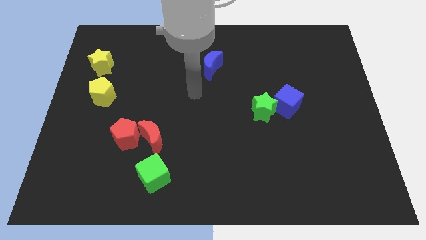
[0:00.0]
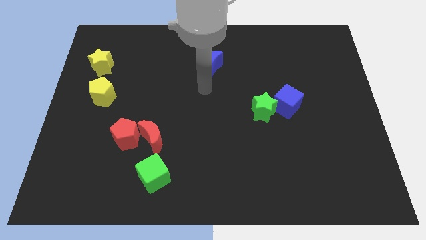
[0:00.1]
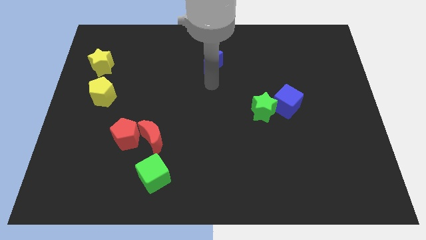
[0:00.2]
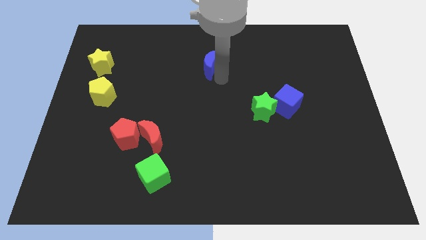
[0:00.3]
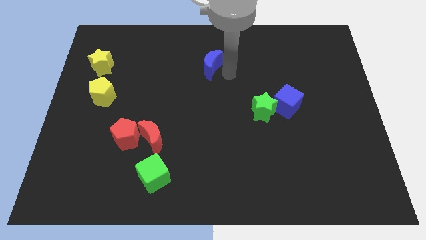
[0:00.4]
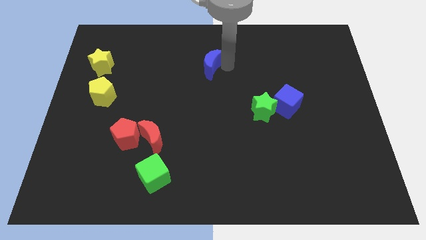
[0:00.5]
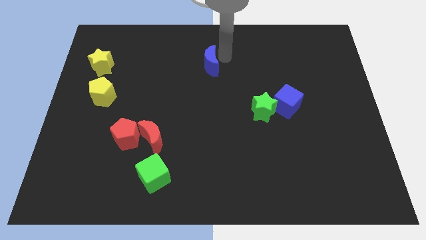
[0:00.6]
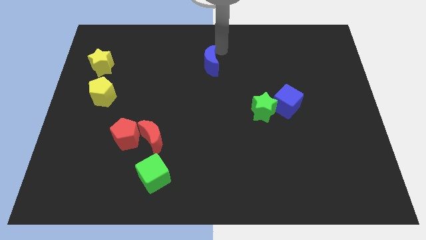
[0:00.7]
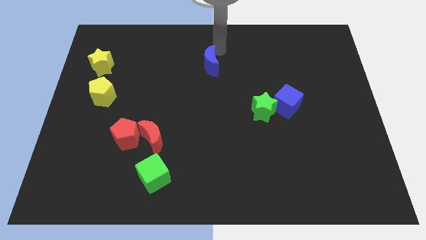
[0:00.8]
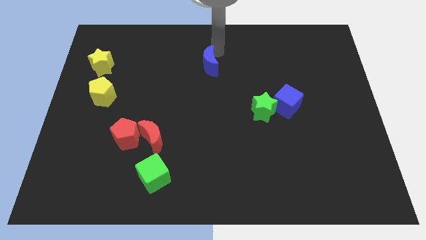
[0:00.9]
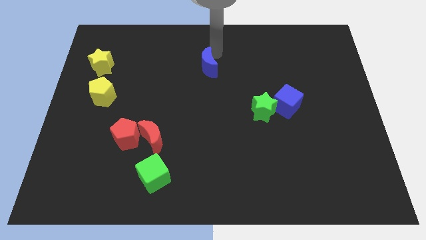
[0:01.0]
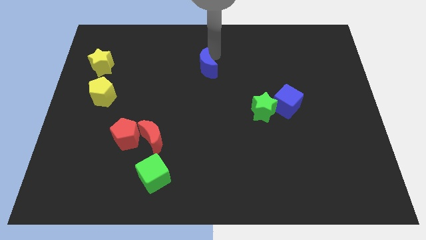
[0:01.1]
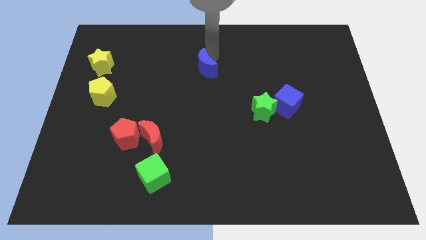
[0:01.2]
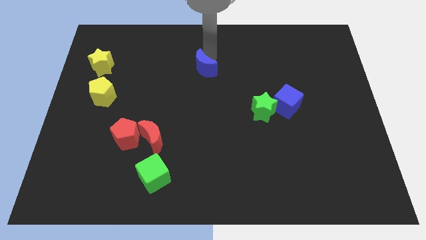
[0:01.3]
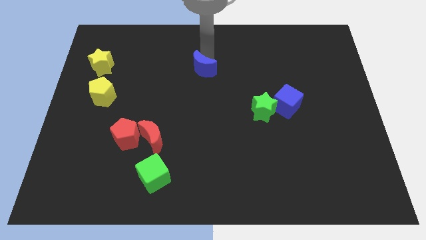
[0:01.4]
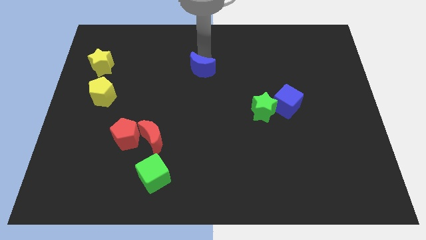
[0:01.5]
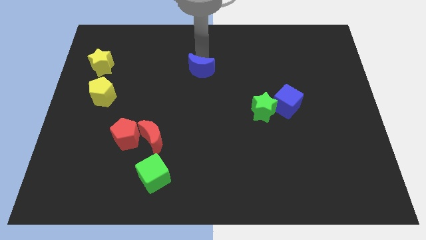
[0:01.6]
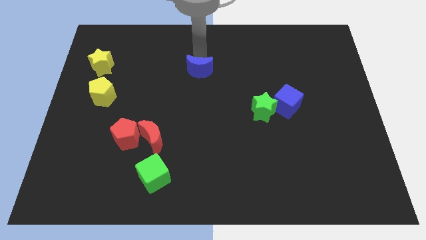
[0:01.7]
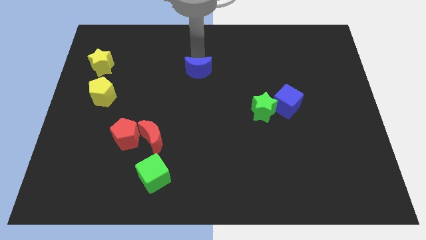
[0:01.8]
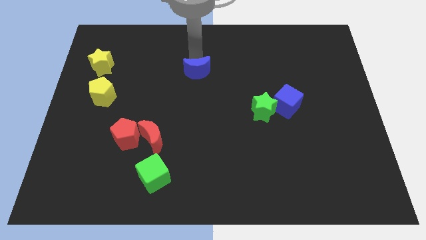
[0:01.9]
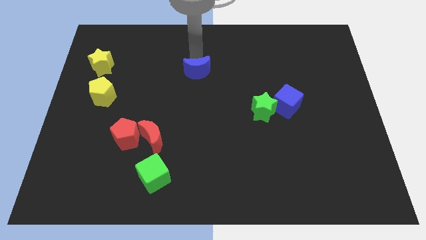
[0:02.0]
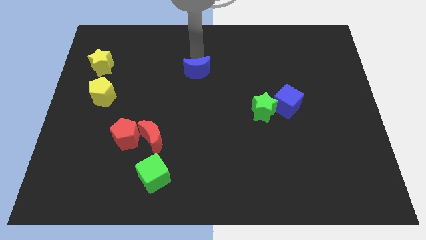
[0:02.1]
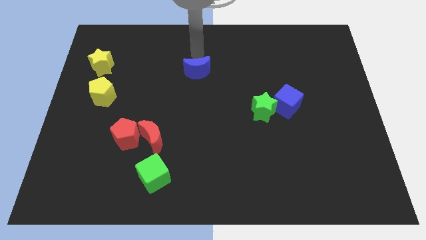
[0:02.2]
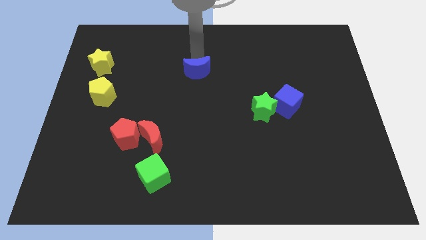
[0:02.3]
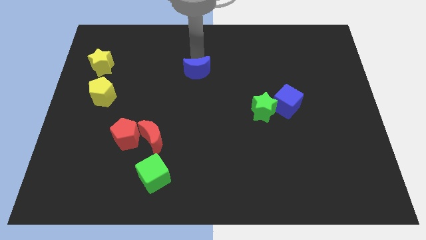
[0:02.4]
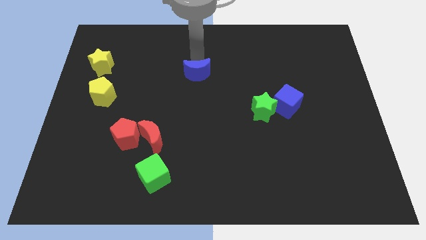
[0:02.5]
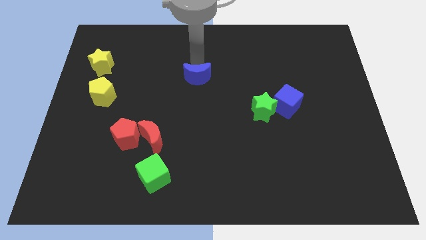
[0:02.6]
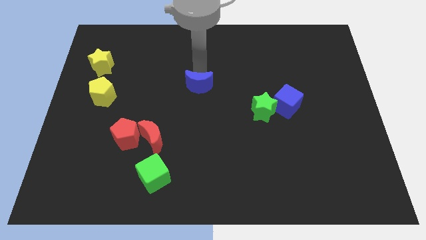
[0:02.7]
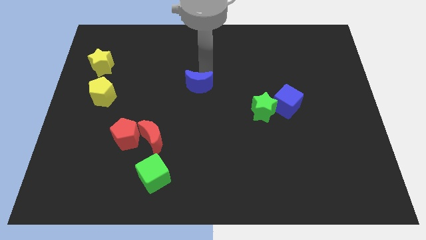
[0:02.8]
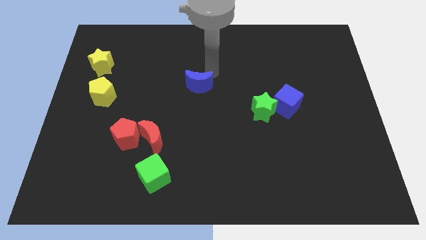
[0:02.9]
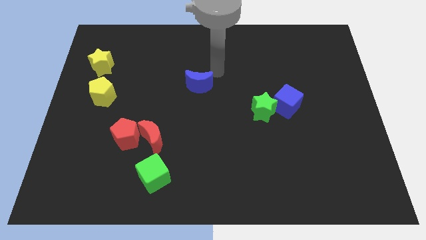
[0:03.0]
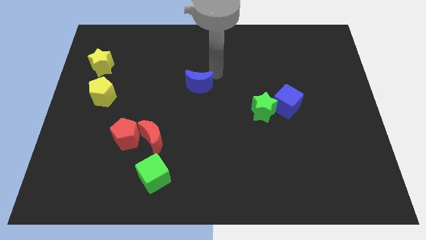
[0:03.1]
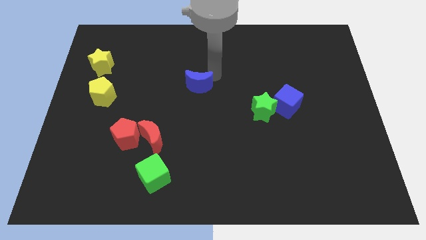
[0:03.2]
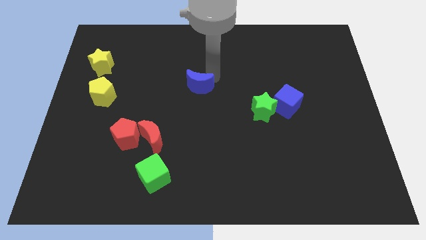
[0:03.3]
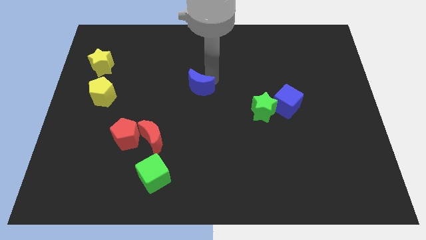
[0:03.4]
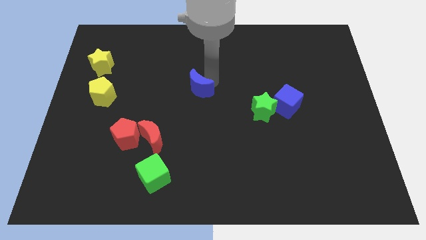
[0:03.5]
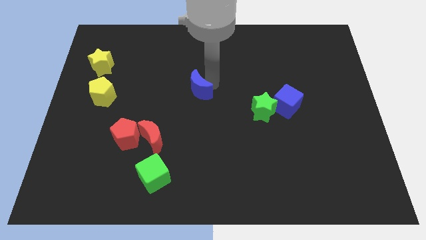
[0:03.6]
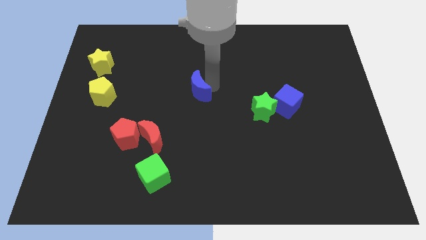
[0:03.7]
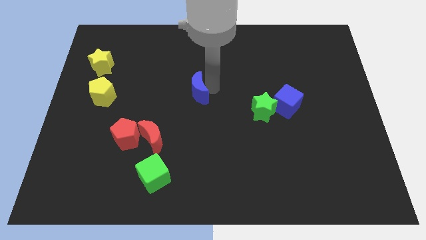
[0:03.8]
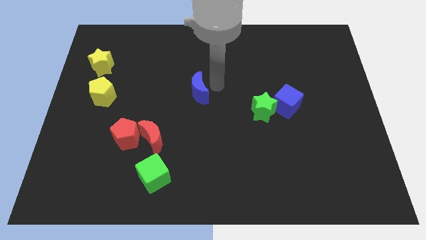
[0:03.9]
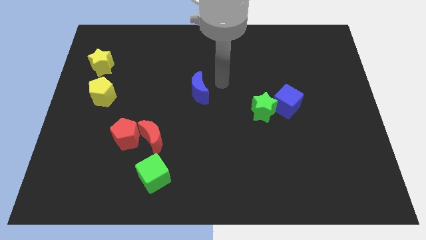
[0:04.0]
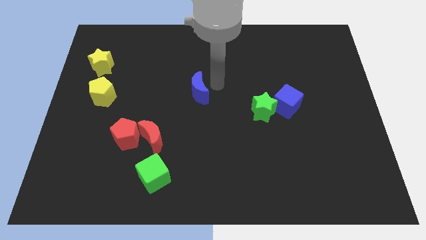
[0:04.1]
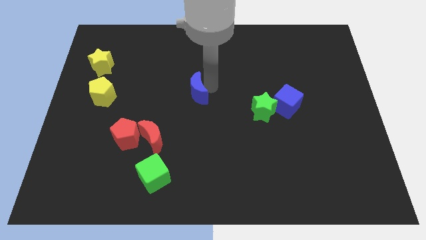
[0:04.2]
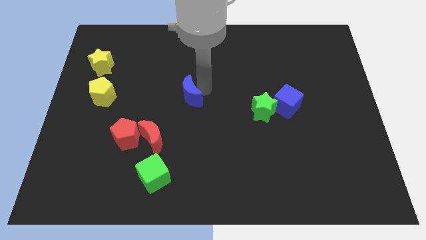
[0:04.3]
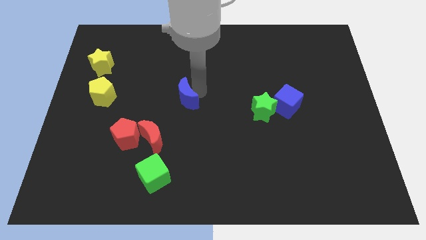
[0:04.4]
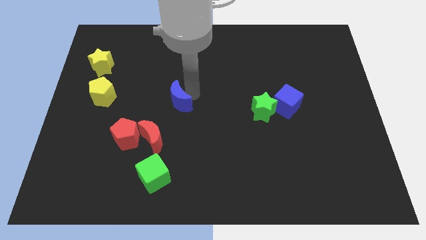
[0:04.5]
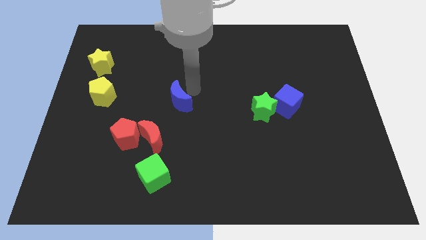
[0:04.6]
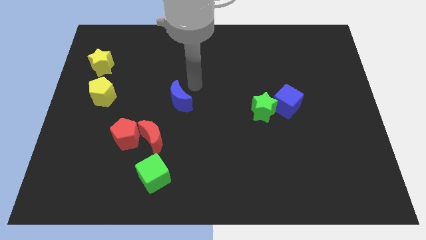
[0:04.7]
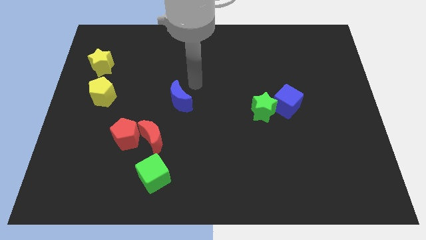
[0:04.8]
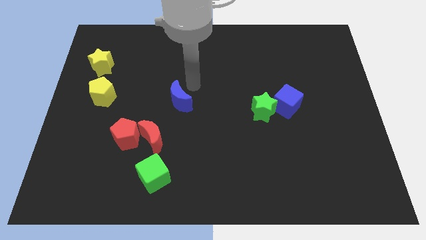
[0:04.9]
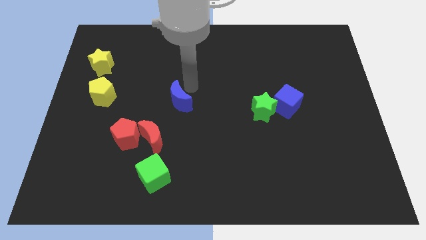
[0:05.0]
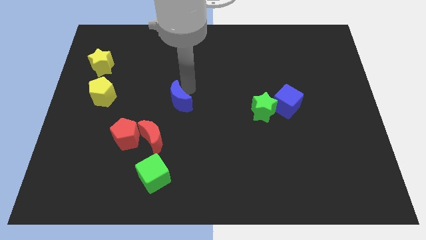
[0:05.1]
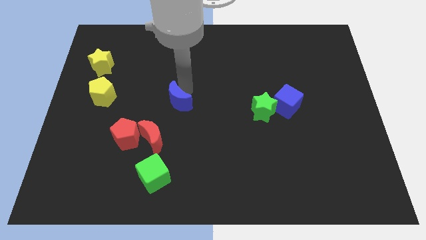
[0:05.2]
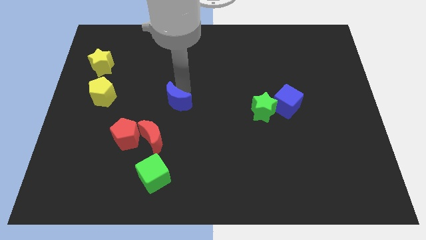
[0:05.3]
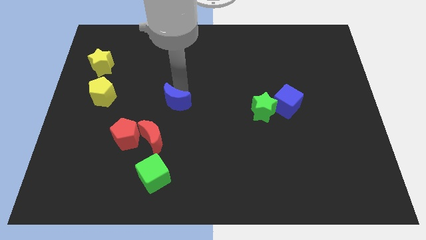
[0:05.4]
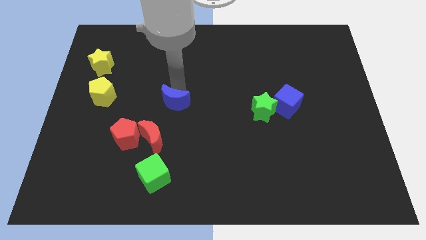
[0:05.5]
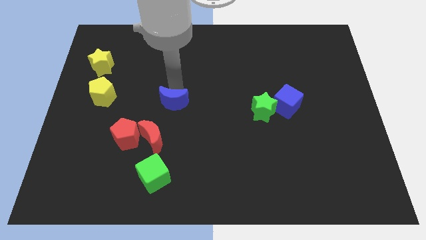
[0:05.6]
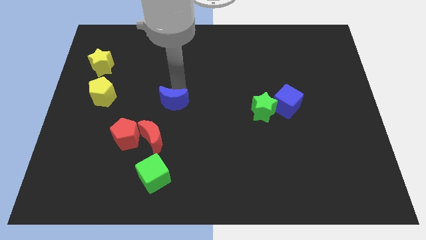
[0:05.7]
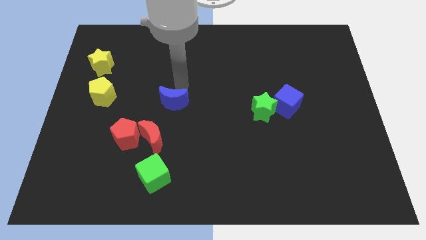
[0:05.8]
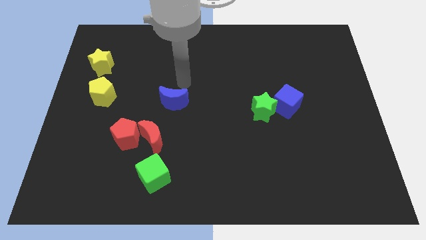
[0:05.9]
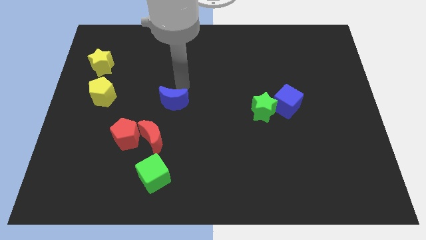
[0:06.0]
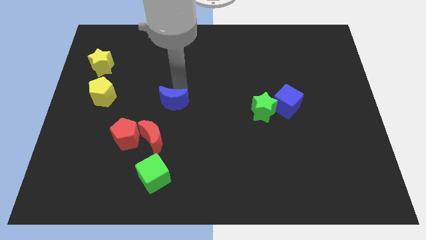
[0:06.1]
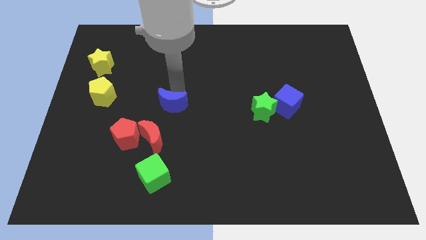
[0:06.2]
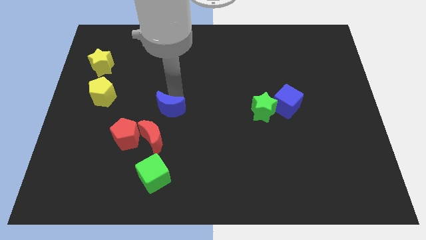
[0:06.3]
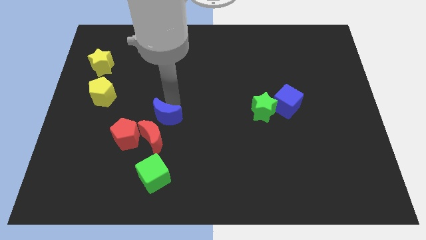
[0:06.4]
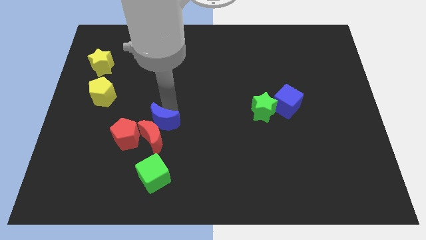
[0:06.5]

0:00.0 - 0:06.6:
put the blue moon close to the red moon

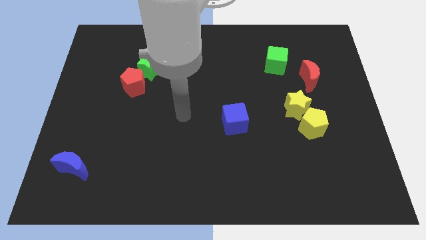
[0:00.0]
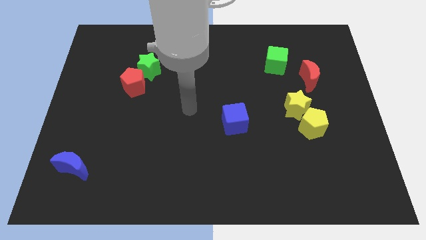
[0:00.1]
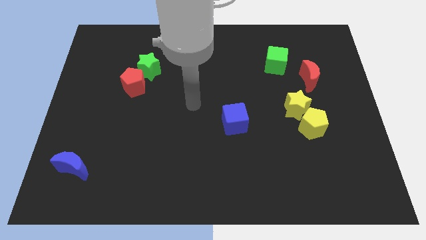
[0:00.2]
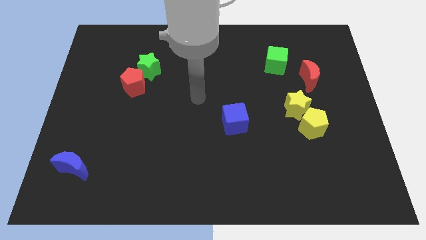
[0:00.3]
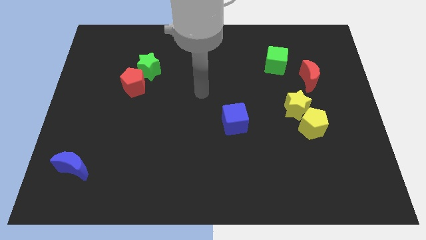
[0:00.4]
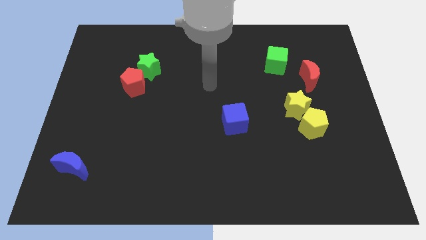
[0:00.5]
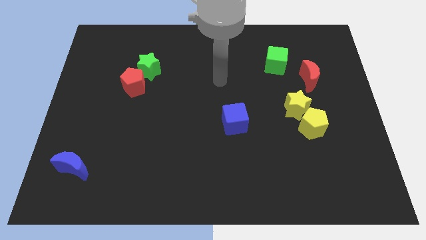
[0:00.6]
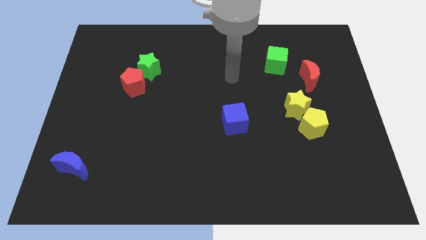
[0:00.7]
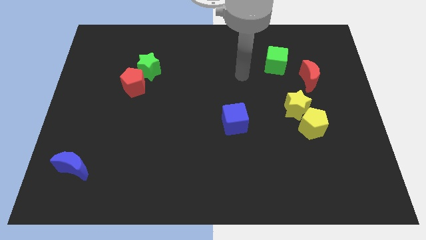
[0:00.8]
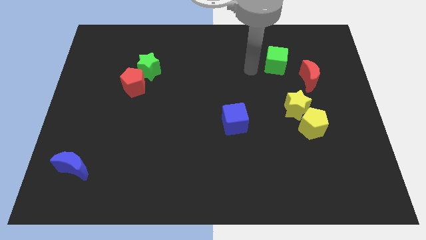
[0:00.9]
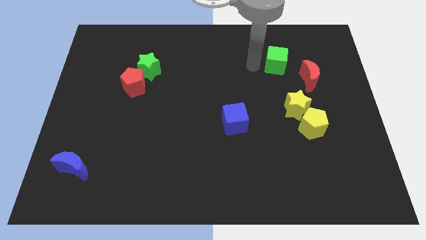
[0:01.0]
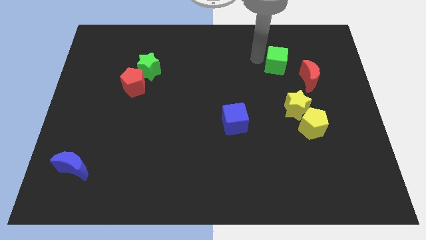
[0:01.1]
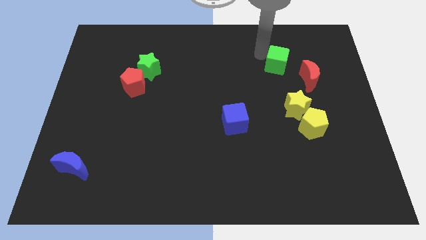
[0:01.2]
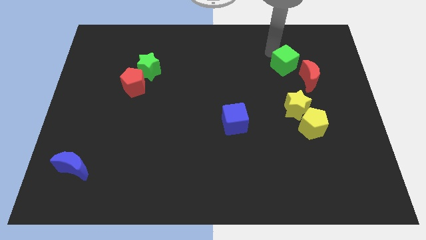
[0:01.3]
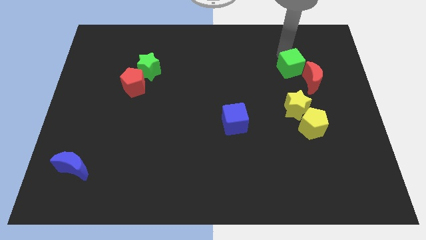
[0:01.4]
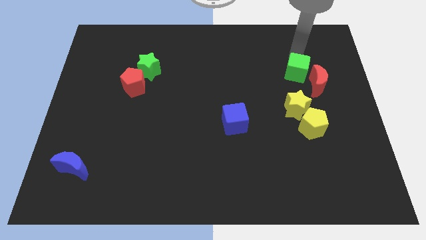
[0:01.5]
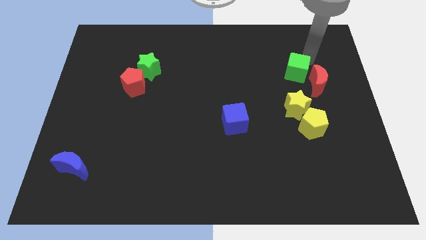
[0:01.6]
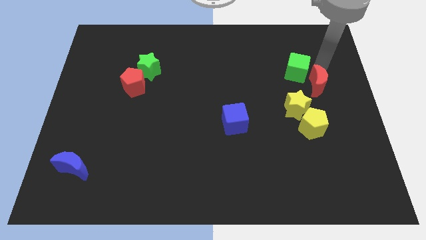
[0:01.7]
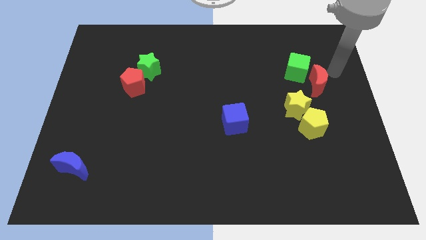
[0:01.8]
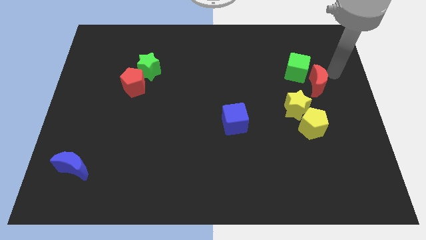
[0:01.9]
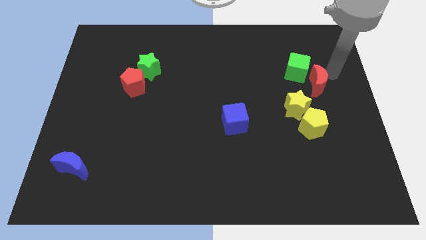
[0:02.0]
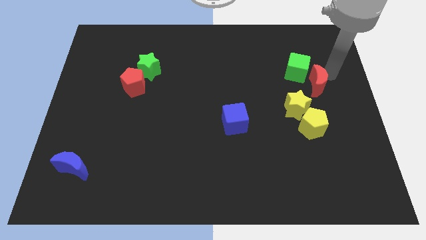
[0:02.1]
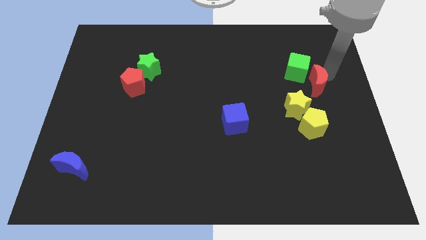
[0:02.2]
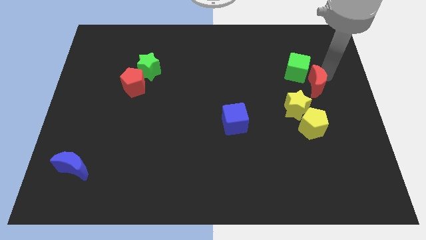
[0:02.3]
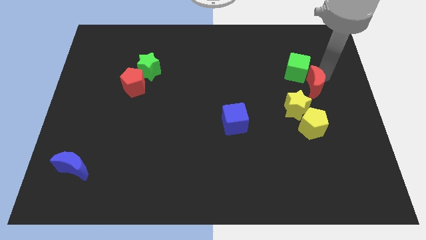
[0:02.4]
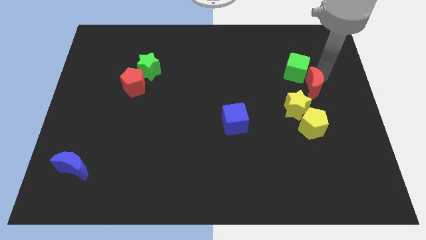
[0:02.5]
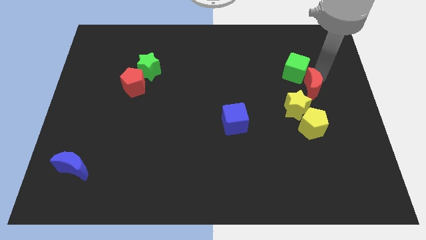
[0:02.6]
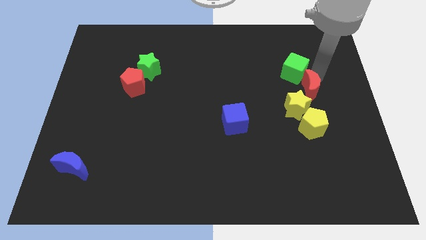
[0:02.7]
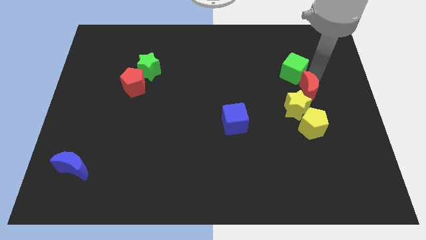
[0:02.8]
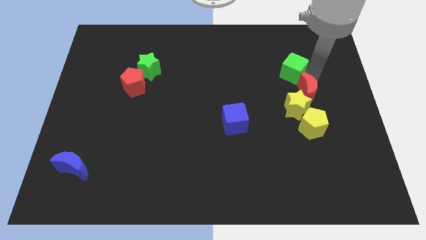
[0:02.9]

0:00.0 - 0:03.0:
put the red moon next to the yellow star
